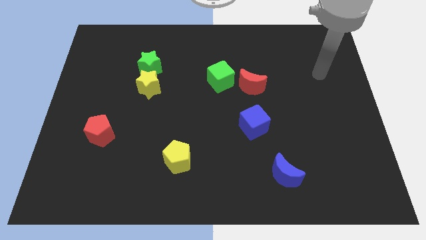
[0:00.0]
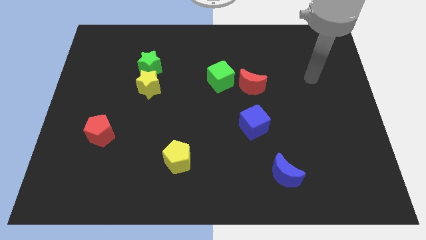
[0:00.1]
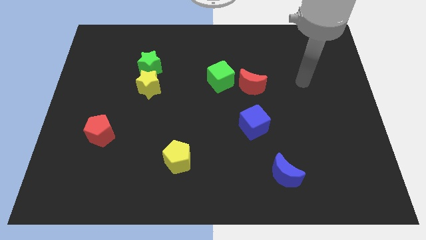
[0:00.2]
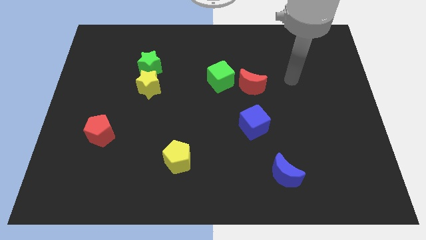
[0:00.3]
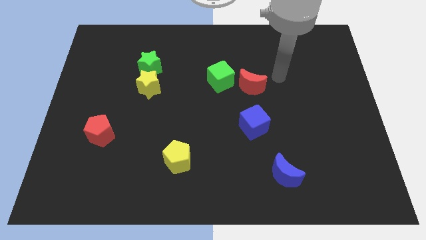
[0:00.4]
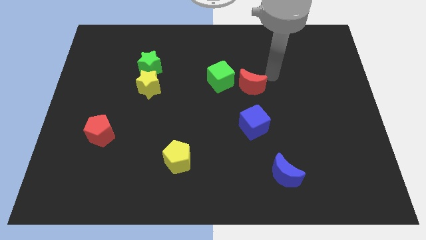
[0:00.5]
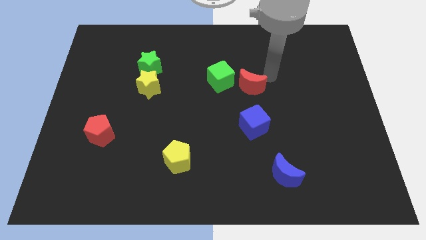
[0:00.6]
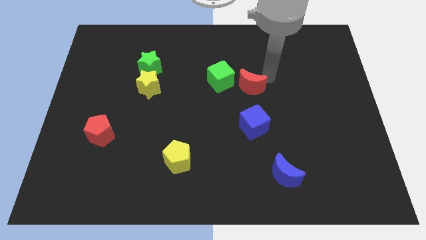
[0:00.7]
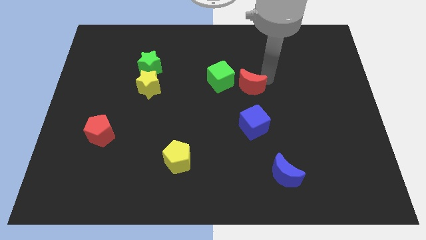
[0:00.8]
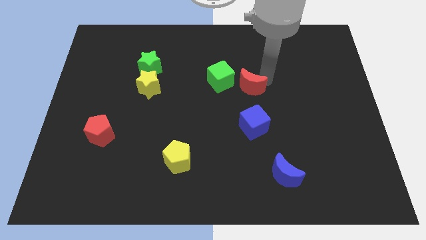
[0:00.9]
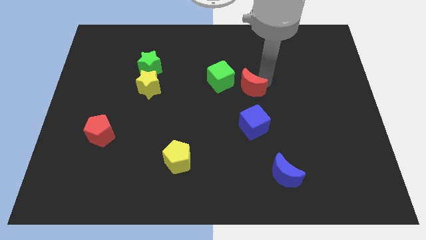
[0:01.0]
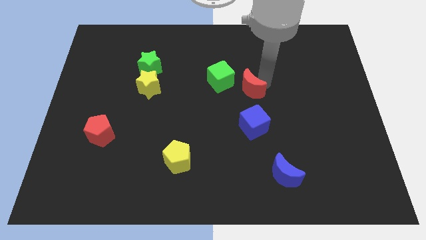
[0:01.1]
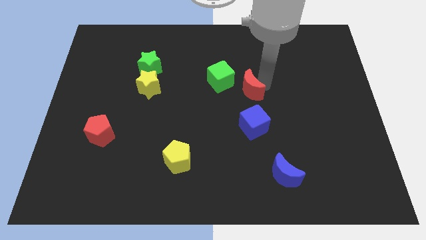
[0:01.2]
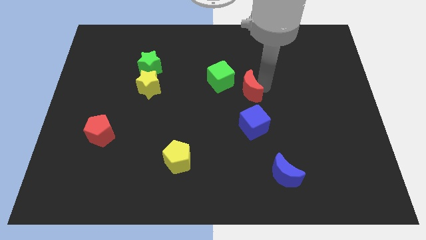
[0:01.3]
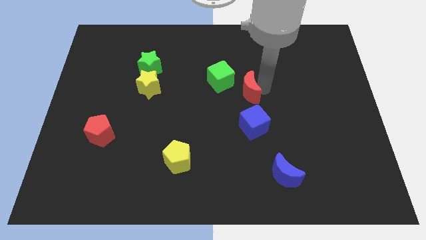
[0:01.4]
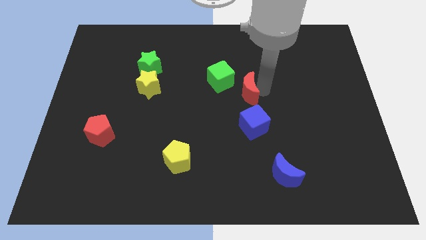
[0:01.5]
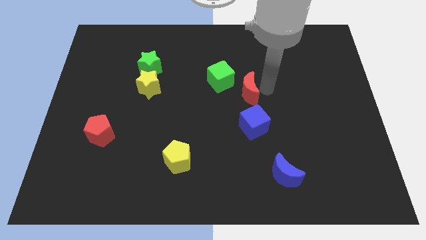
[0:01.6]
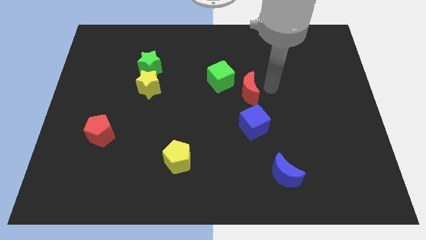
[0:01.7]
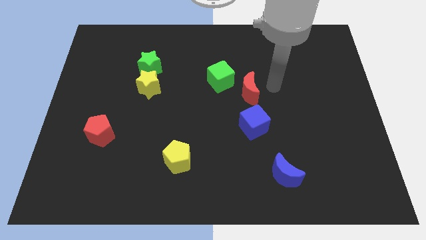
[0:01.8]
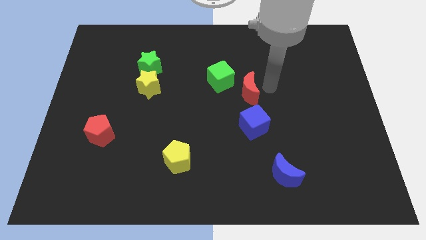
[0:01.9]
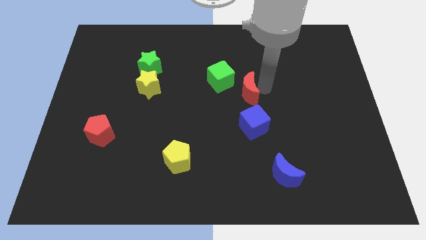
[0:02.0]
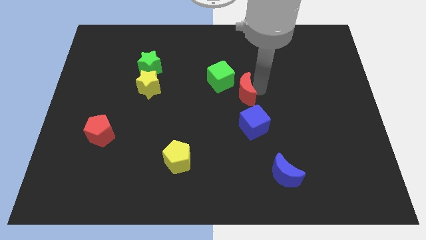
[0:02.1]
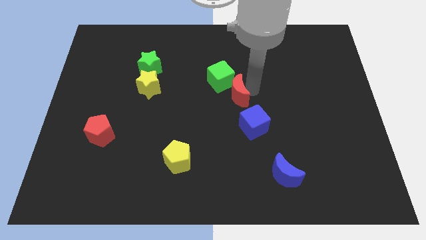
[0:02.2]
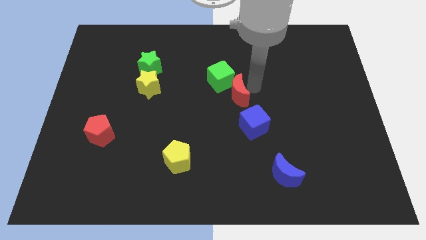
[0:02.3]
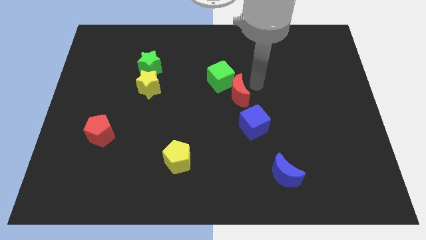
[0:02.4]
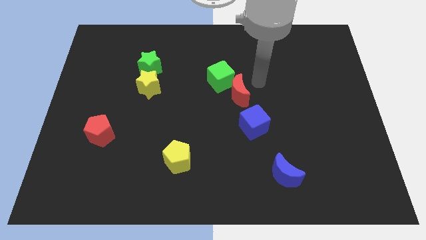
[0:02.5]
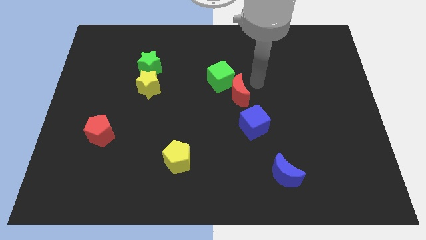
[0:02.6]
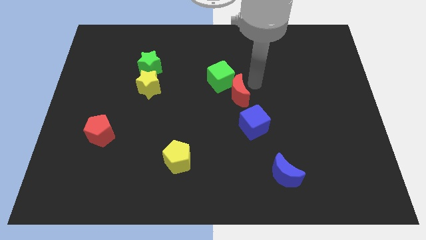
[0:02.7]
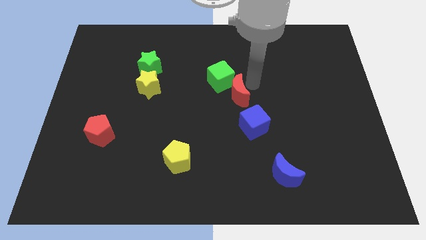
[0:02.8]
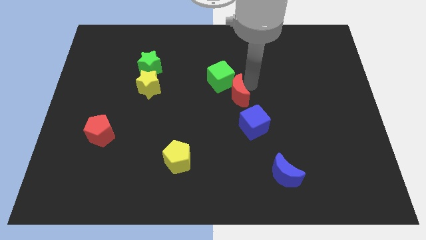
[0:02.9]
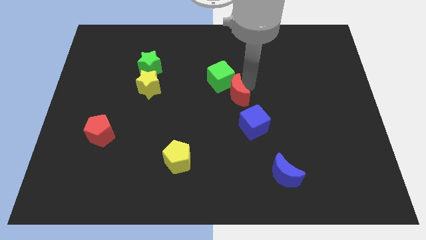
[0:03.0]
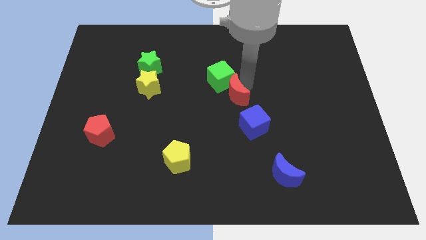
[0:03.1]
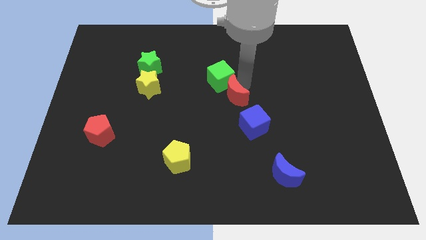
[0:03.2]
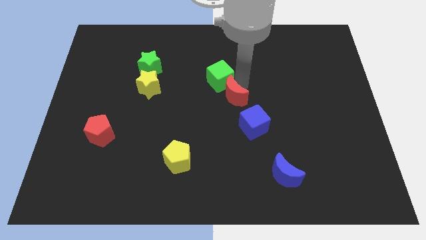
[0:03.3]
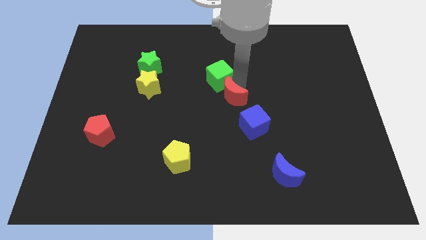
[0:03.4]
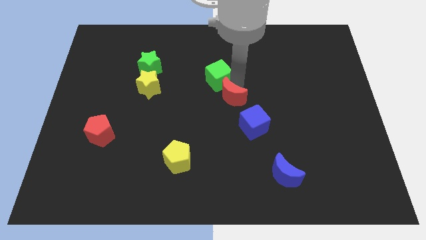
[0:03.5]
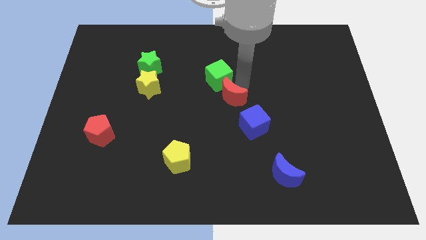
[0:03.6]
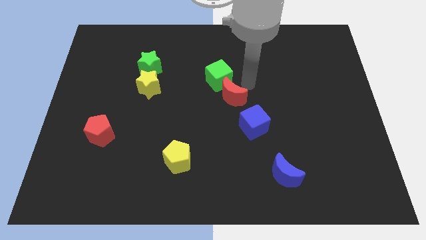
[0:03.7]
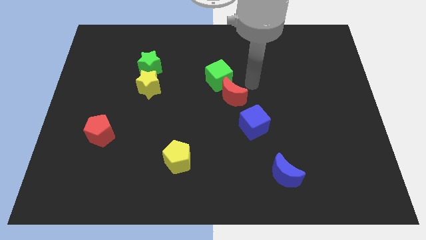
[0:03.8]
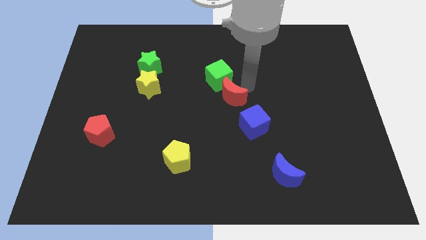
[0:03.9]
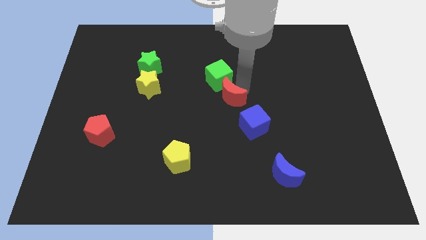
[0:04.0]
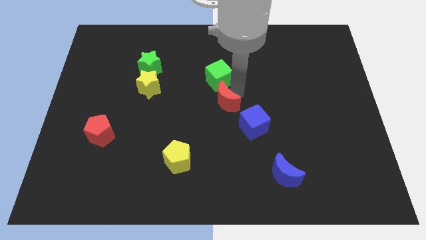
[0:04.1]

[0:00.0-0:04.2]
slightly push the red moon downwards and to the left diagonally

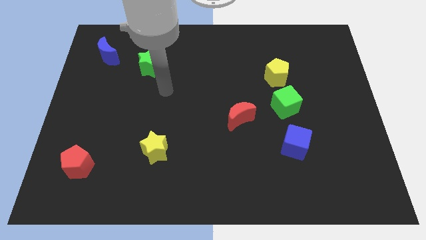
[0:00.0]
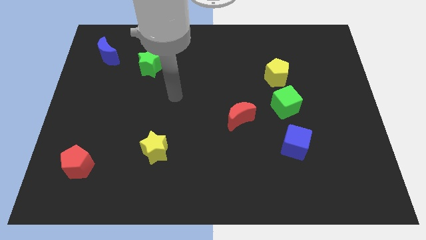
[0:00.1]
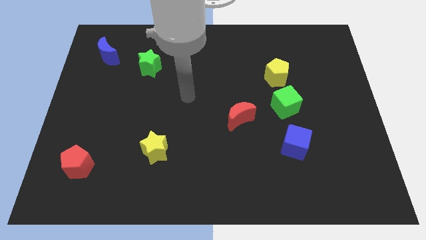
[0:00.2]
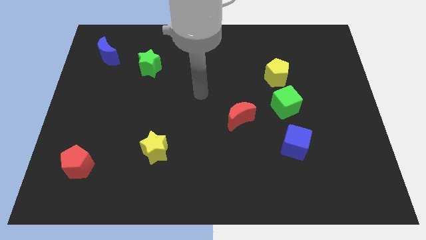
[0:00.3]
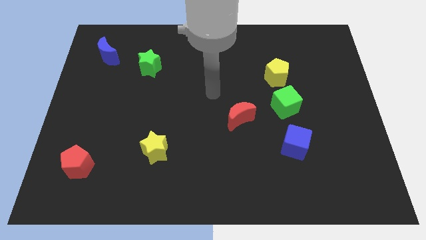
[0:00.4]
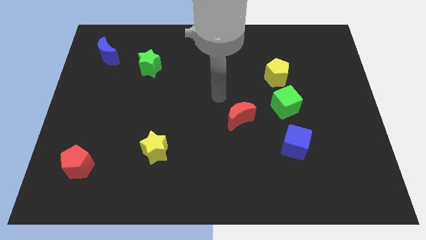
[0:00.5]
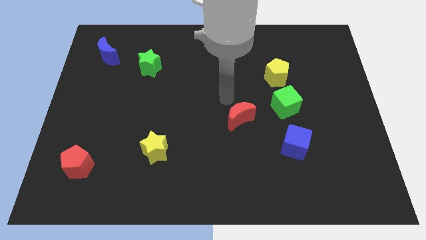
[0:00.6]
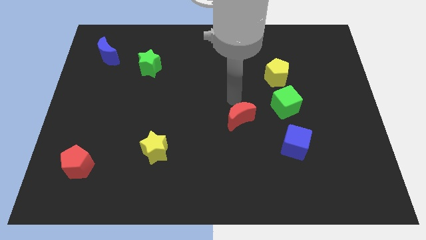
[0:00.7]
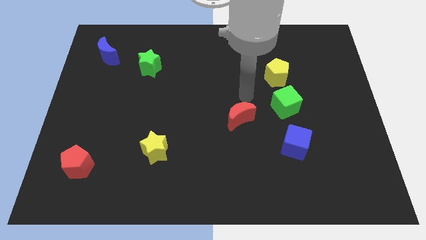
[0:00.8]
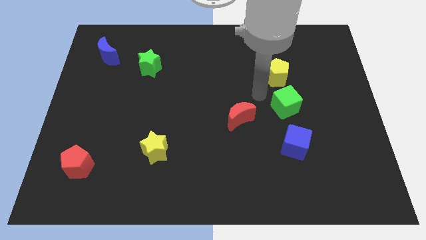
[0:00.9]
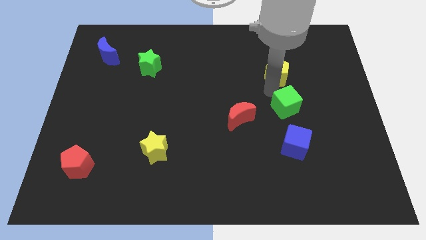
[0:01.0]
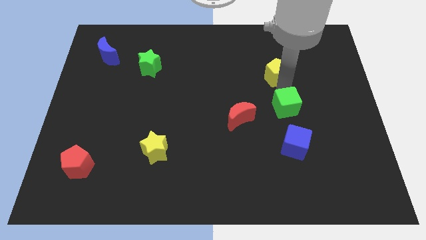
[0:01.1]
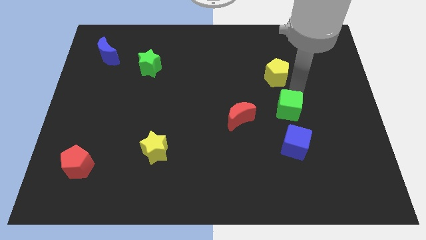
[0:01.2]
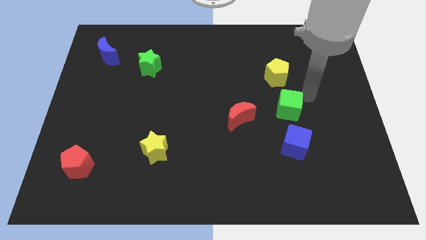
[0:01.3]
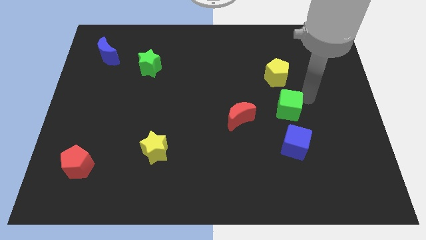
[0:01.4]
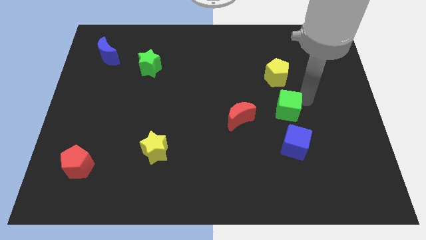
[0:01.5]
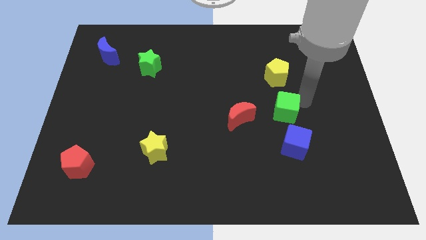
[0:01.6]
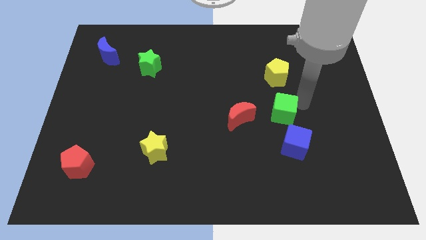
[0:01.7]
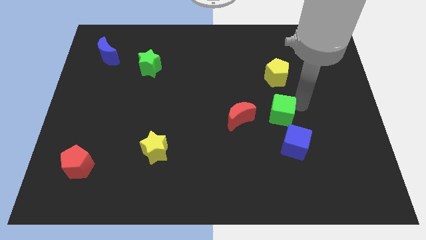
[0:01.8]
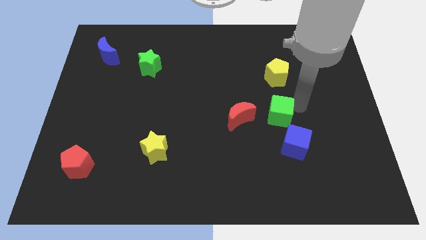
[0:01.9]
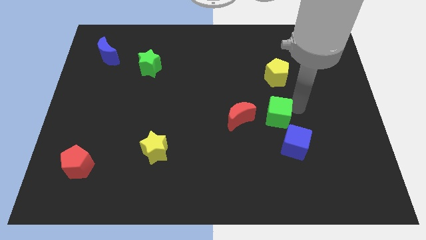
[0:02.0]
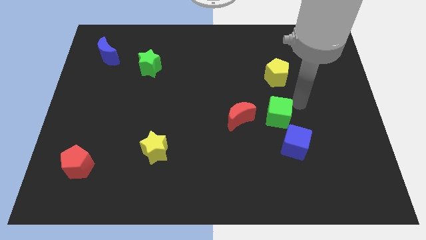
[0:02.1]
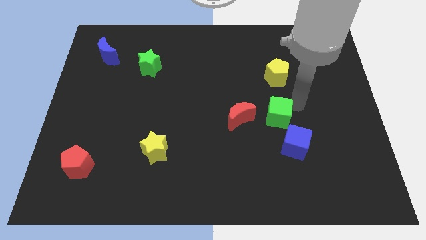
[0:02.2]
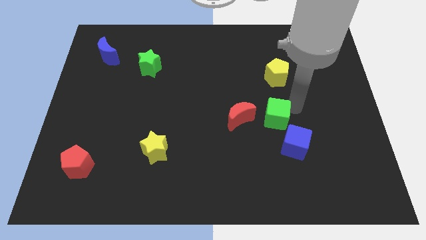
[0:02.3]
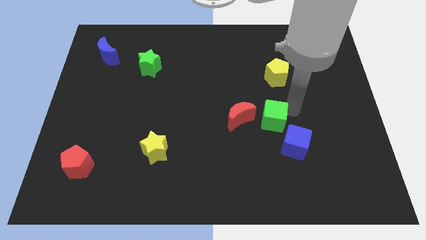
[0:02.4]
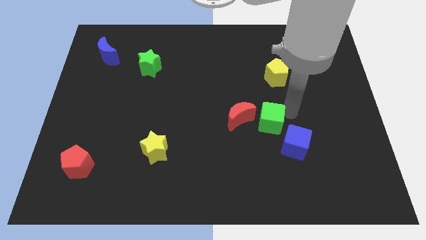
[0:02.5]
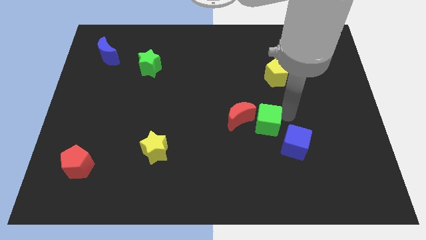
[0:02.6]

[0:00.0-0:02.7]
slightly move the green cube downwards and then left

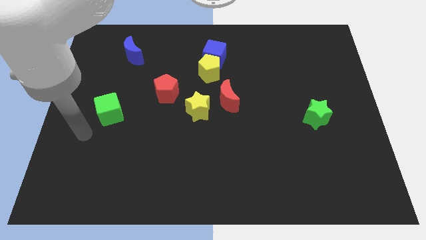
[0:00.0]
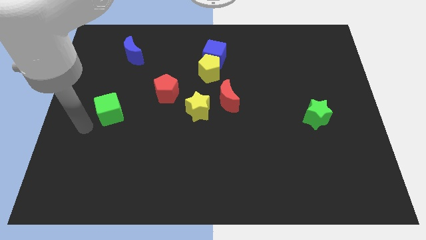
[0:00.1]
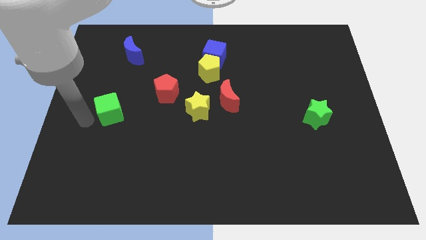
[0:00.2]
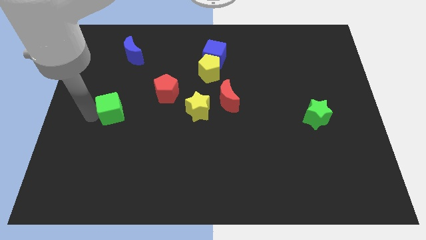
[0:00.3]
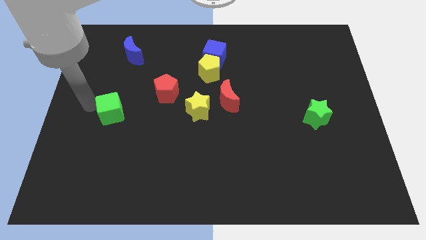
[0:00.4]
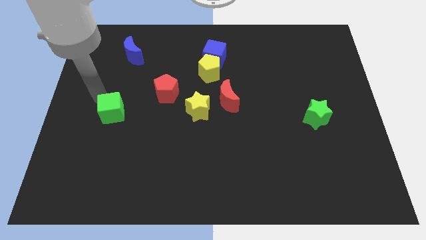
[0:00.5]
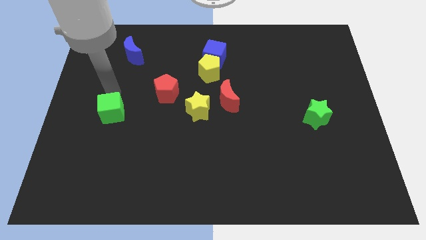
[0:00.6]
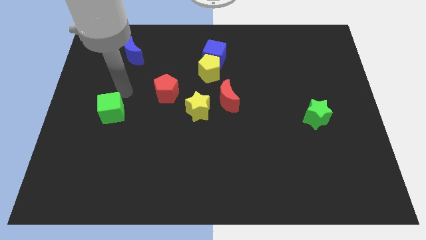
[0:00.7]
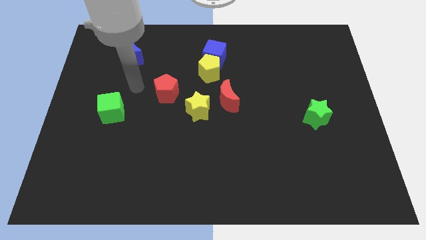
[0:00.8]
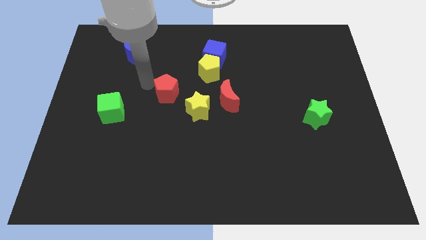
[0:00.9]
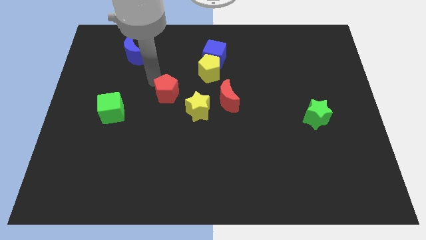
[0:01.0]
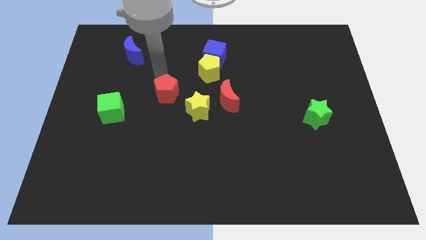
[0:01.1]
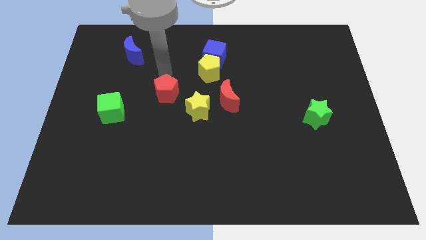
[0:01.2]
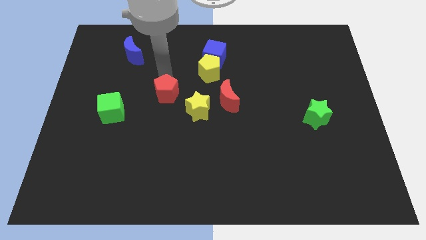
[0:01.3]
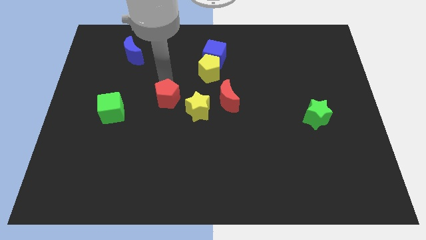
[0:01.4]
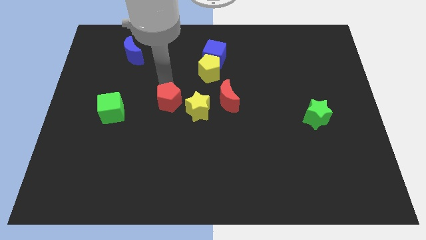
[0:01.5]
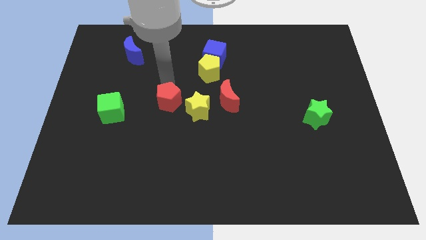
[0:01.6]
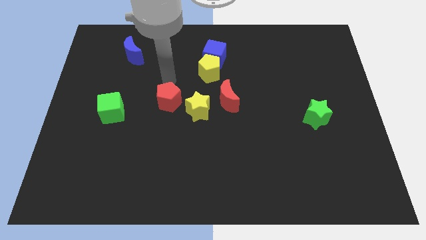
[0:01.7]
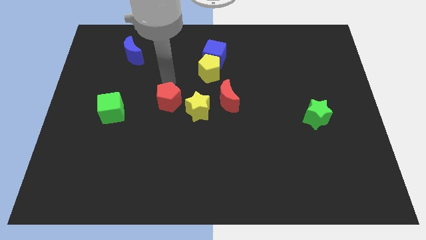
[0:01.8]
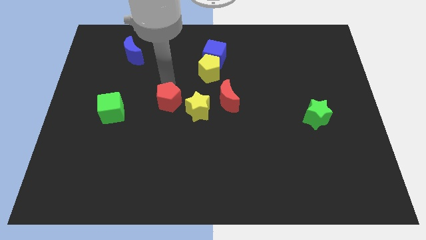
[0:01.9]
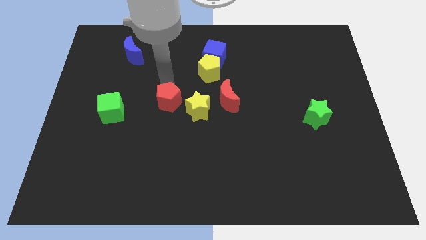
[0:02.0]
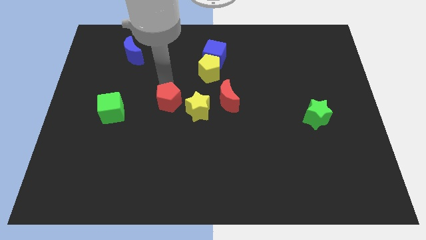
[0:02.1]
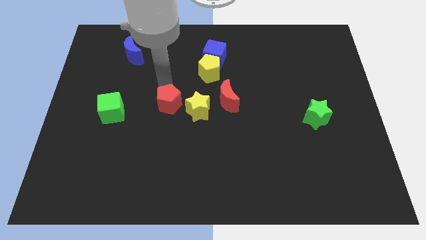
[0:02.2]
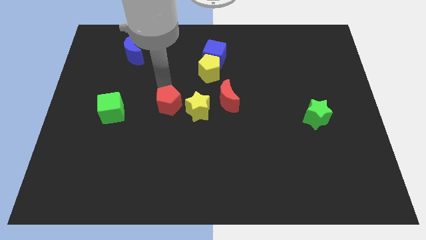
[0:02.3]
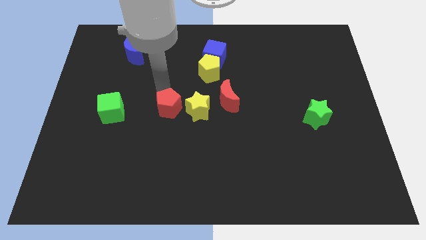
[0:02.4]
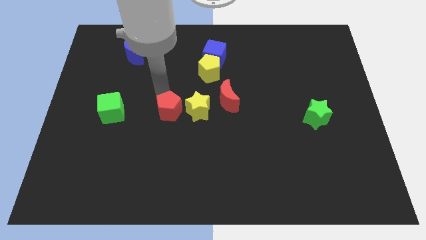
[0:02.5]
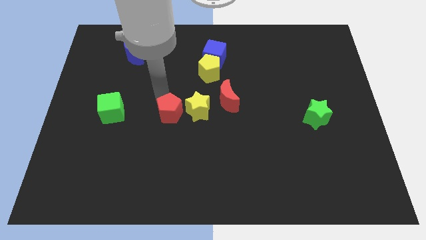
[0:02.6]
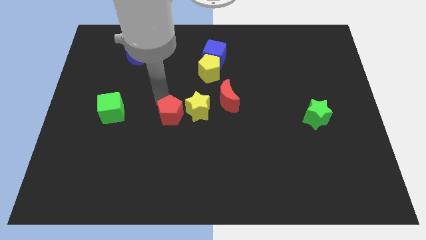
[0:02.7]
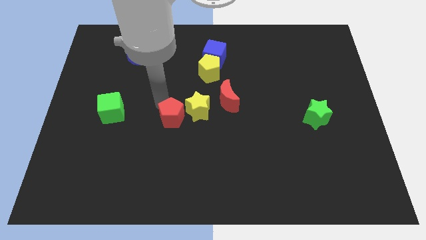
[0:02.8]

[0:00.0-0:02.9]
slide the red pentagon slightly downwards
